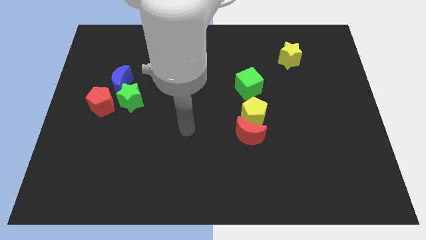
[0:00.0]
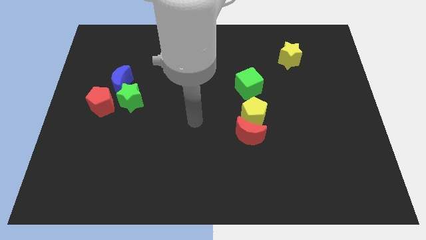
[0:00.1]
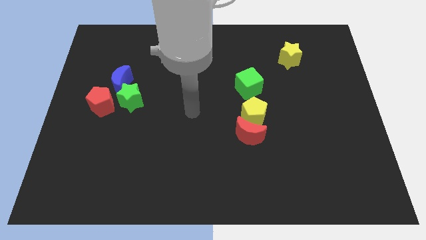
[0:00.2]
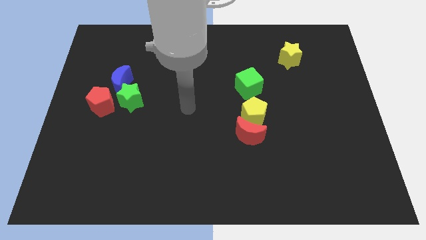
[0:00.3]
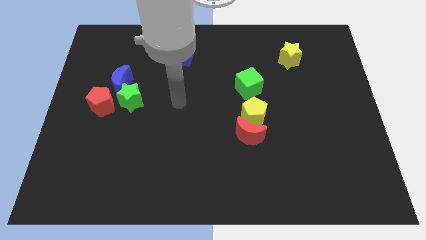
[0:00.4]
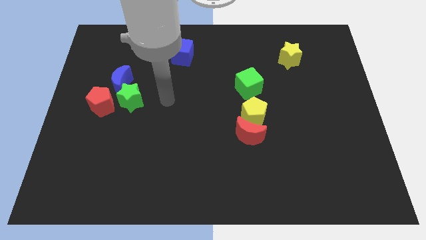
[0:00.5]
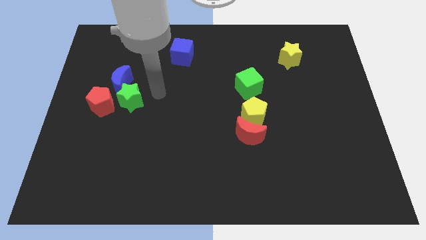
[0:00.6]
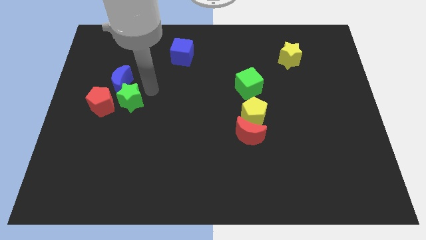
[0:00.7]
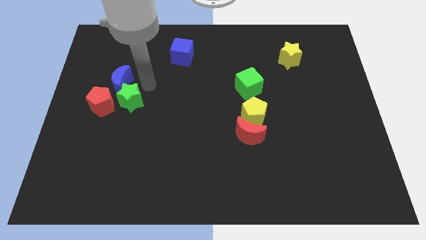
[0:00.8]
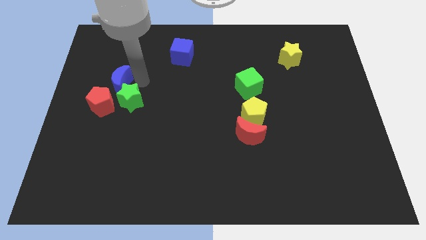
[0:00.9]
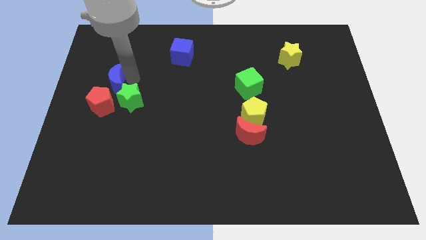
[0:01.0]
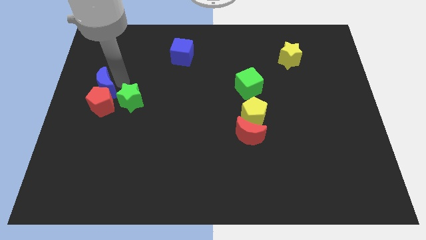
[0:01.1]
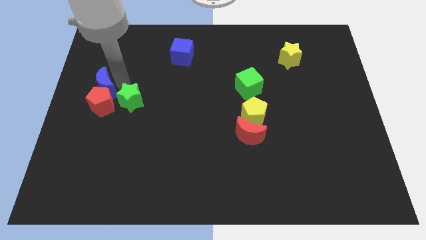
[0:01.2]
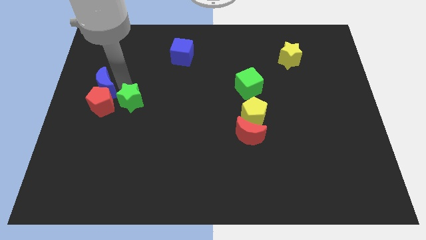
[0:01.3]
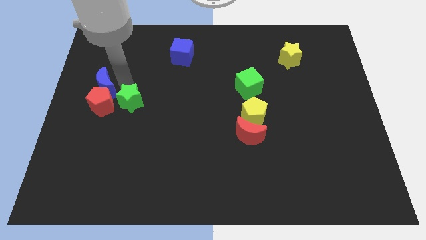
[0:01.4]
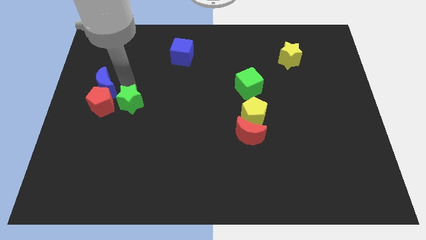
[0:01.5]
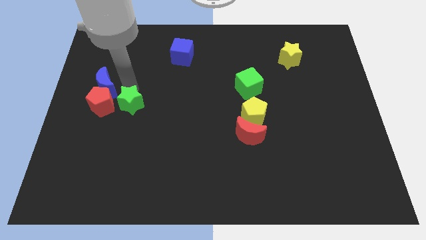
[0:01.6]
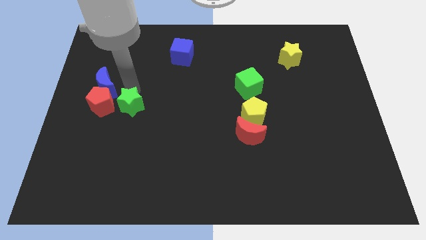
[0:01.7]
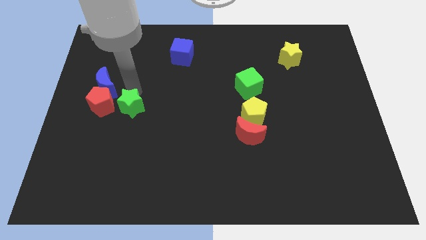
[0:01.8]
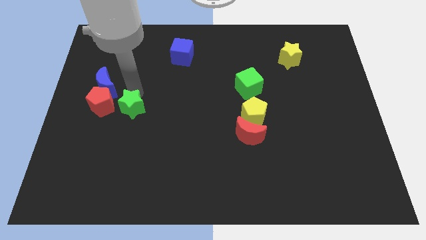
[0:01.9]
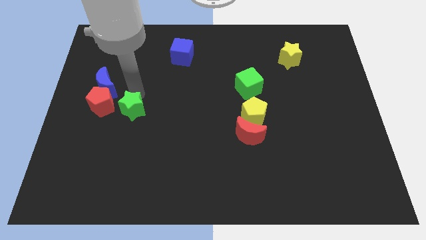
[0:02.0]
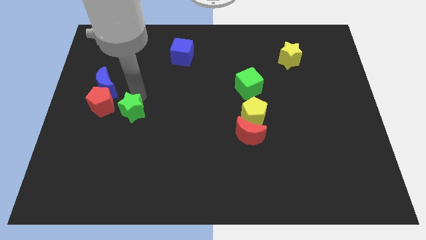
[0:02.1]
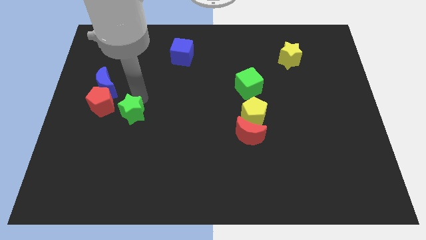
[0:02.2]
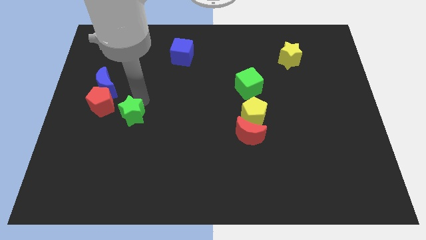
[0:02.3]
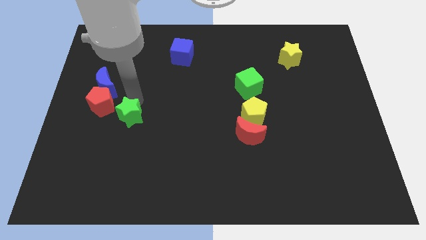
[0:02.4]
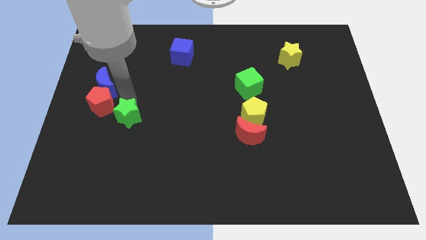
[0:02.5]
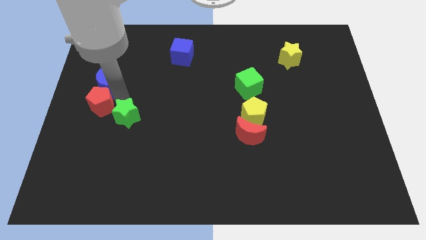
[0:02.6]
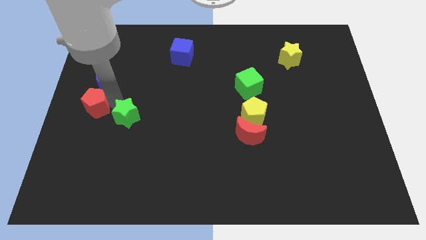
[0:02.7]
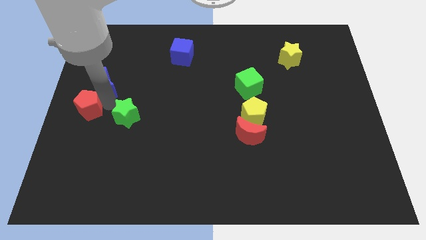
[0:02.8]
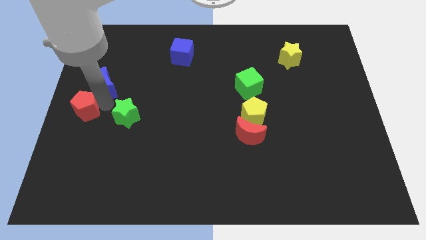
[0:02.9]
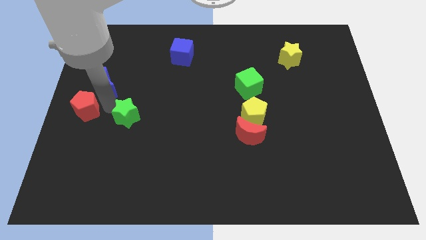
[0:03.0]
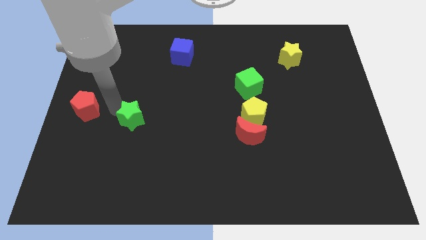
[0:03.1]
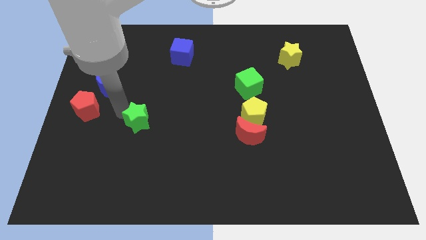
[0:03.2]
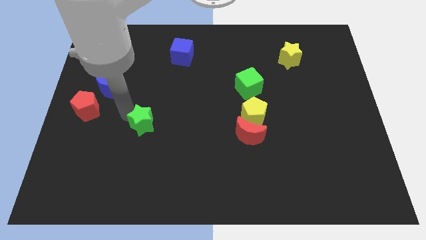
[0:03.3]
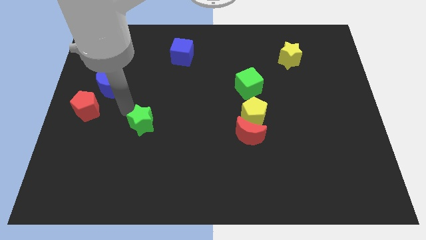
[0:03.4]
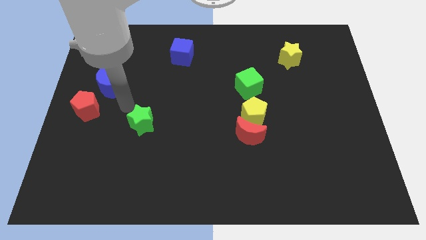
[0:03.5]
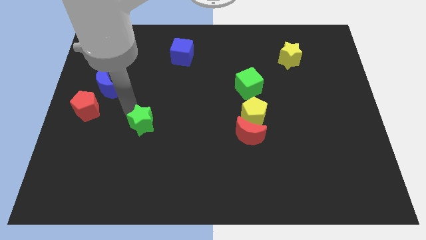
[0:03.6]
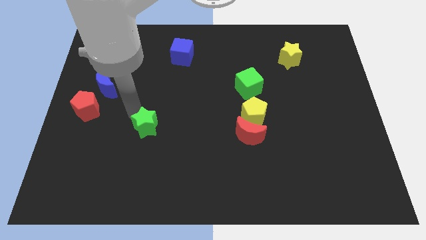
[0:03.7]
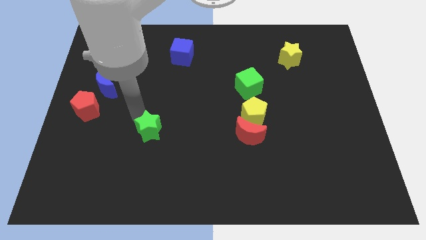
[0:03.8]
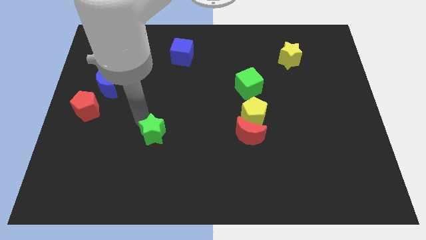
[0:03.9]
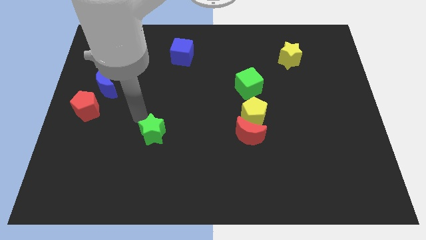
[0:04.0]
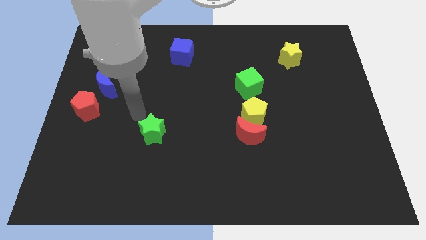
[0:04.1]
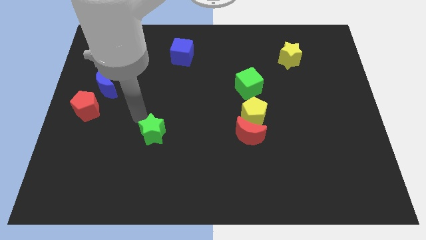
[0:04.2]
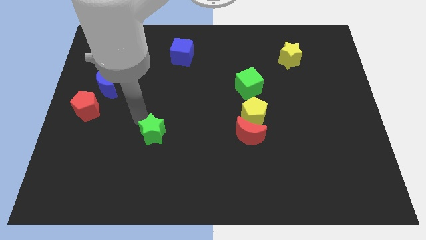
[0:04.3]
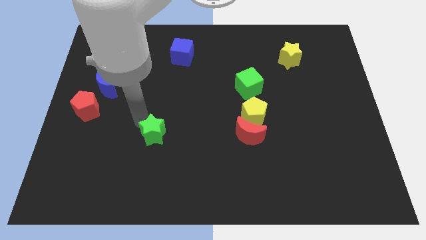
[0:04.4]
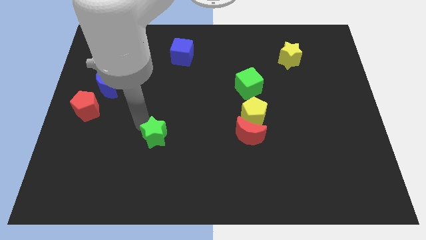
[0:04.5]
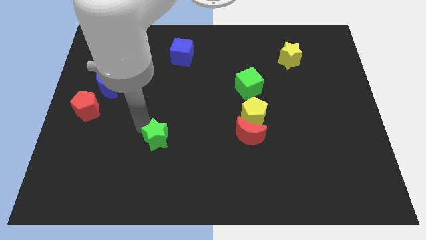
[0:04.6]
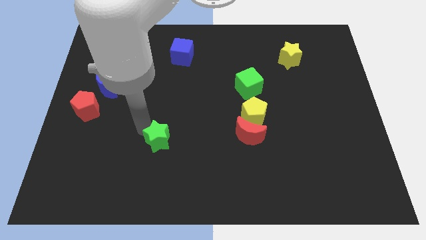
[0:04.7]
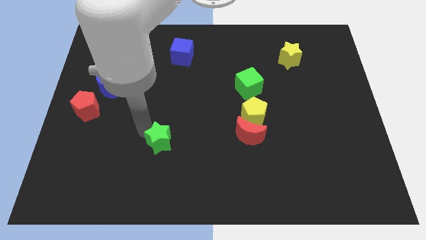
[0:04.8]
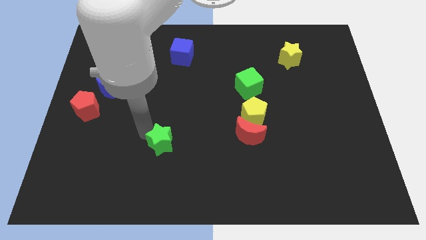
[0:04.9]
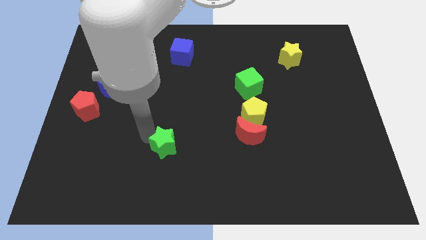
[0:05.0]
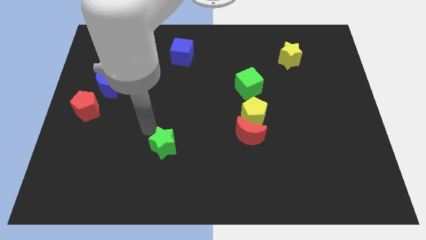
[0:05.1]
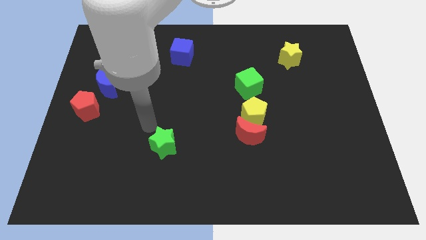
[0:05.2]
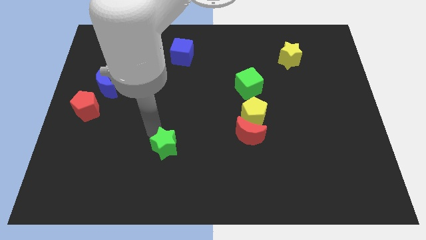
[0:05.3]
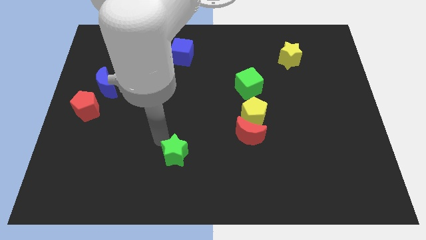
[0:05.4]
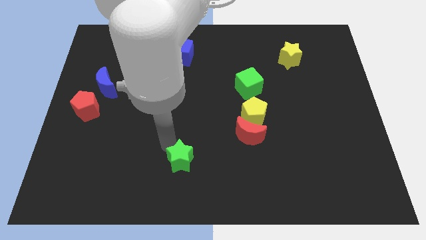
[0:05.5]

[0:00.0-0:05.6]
move the green star to the bottom side

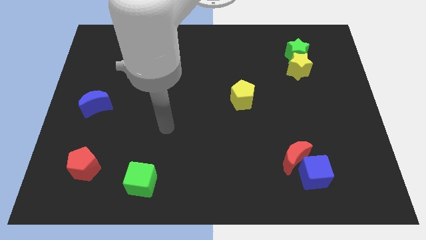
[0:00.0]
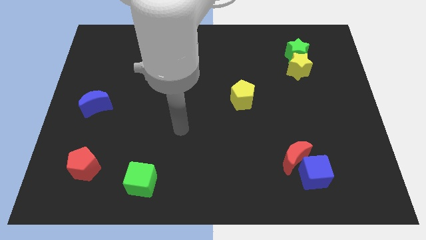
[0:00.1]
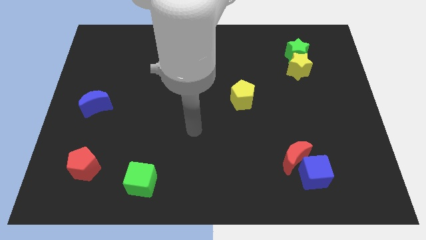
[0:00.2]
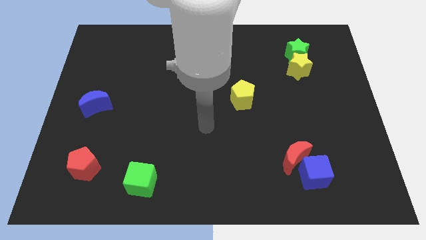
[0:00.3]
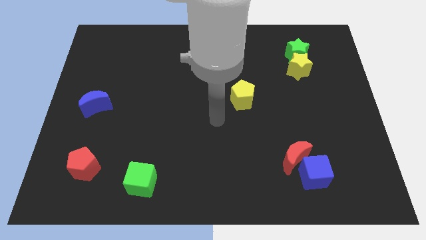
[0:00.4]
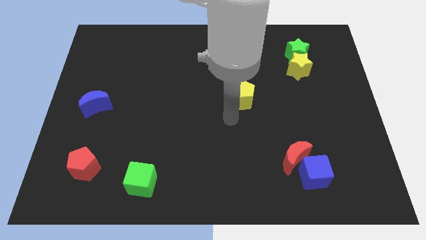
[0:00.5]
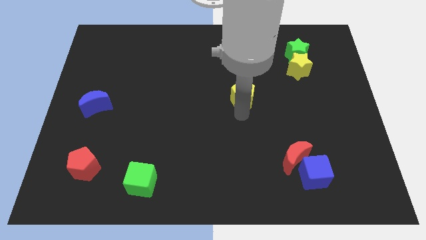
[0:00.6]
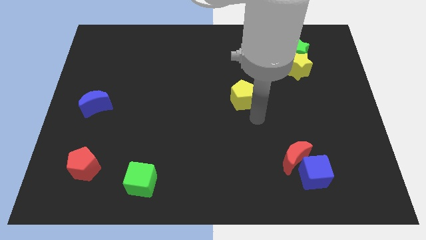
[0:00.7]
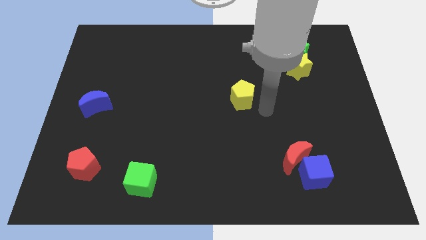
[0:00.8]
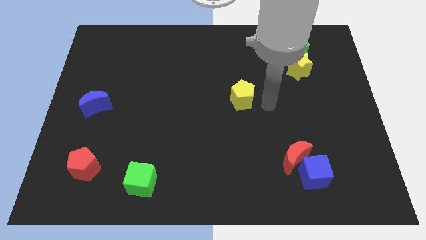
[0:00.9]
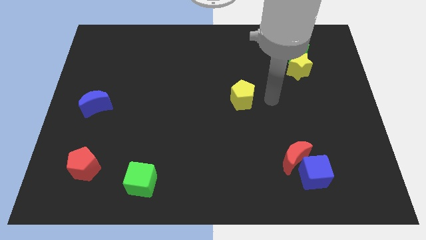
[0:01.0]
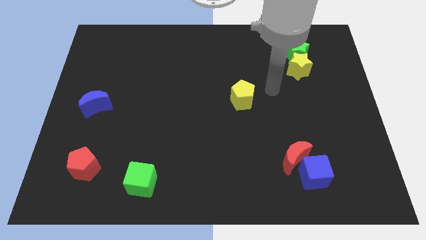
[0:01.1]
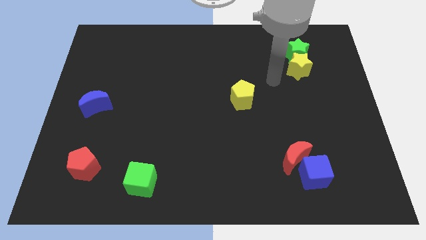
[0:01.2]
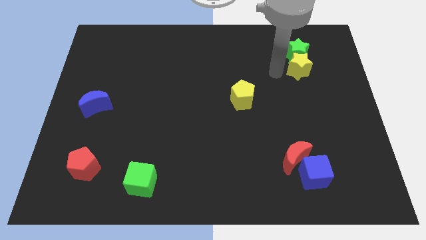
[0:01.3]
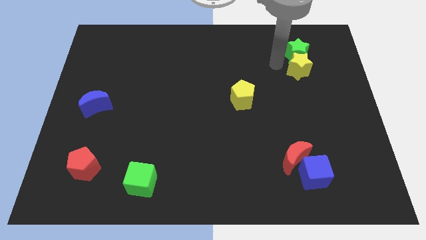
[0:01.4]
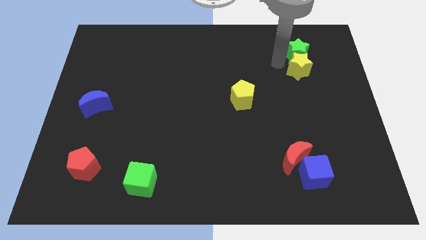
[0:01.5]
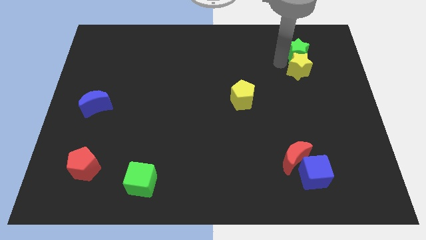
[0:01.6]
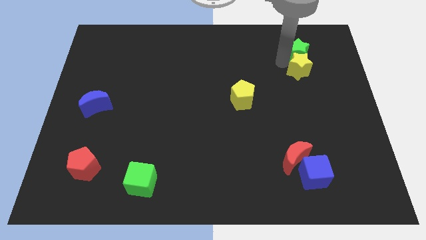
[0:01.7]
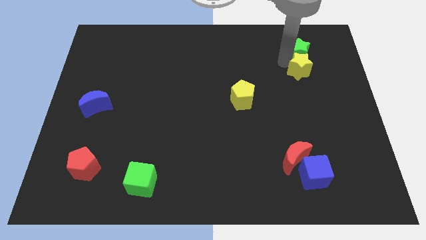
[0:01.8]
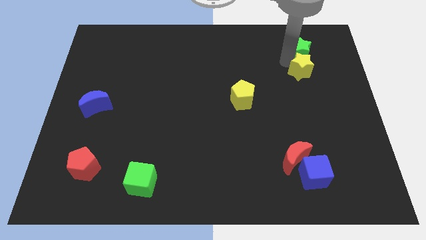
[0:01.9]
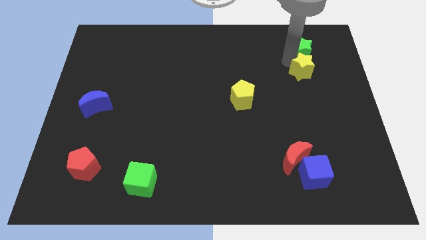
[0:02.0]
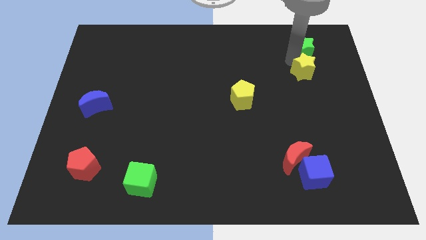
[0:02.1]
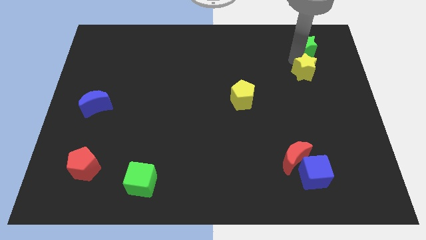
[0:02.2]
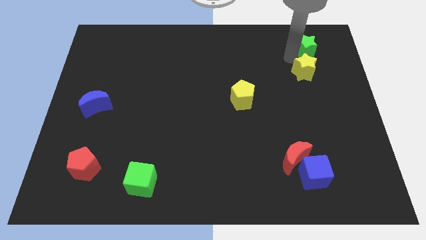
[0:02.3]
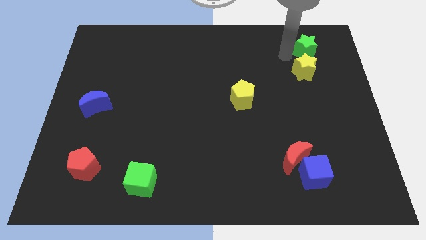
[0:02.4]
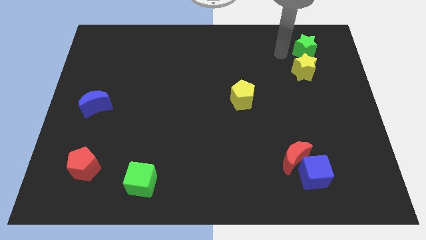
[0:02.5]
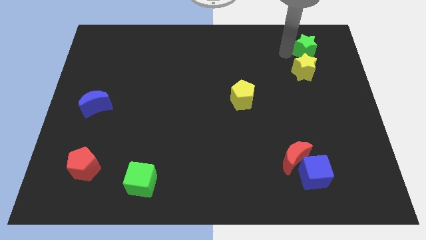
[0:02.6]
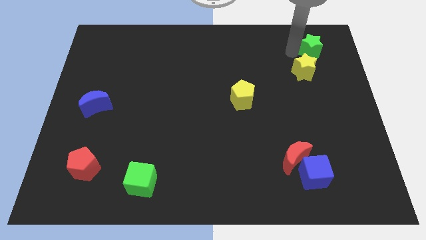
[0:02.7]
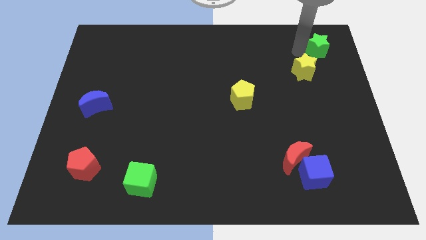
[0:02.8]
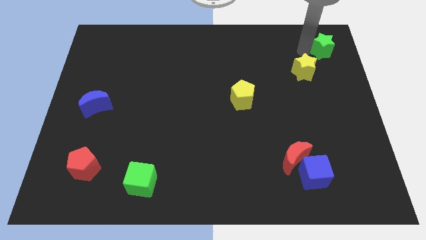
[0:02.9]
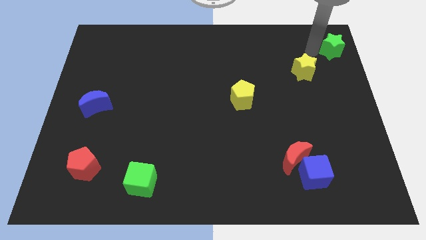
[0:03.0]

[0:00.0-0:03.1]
push the green star to the top right of the board
